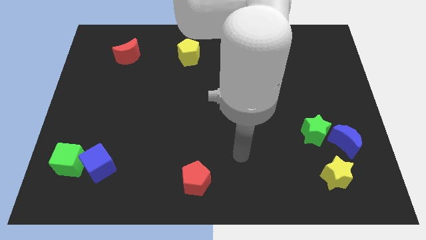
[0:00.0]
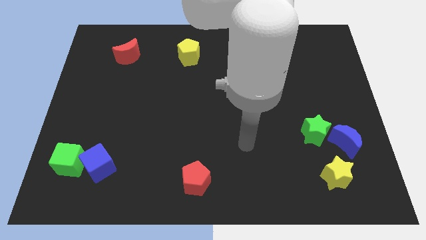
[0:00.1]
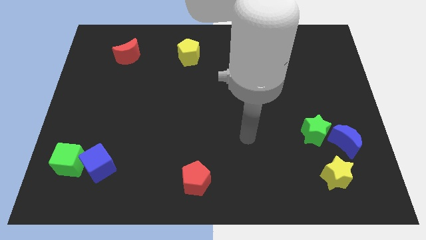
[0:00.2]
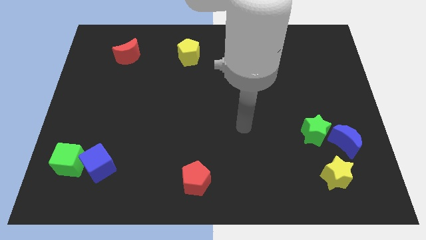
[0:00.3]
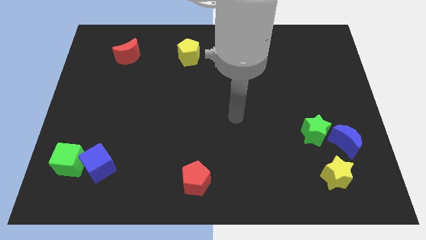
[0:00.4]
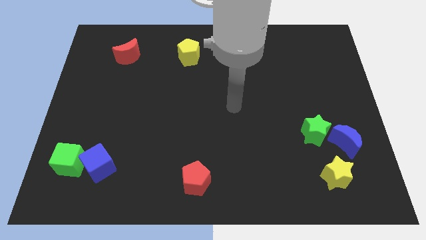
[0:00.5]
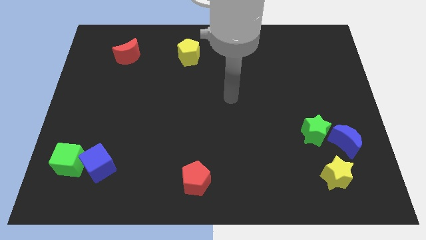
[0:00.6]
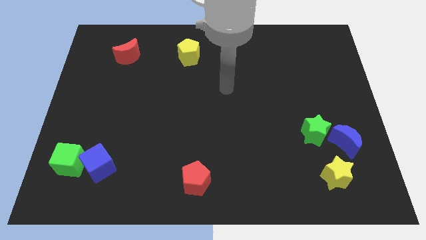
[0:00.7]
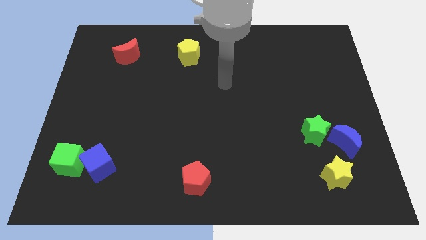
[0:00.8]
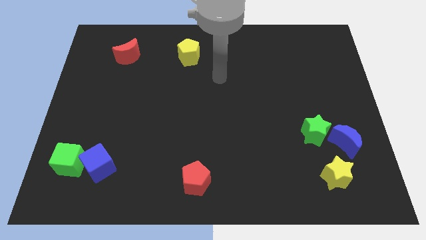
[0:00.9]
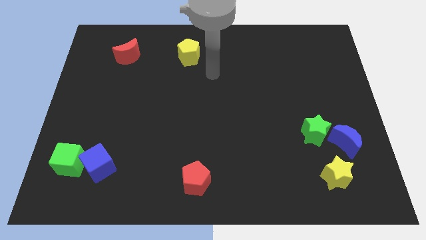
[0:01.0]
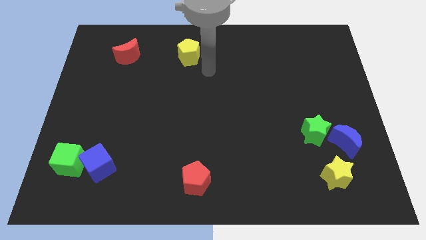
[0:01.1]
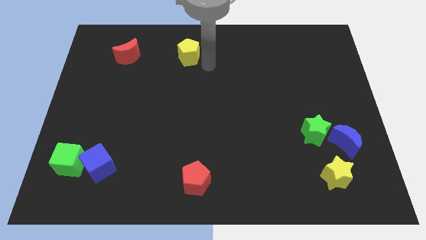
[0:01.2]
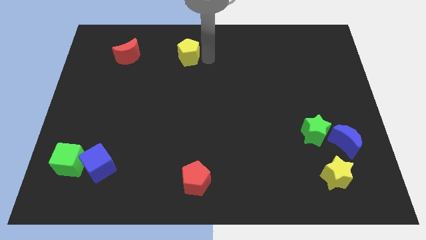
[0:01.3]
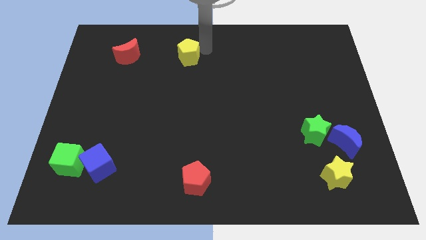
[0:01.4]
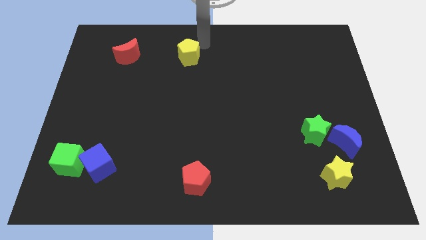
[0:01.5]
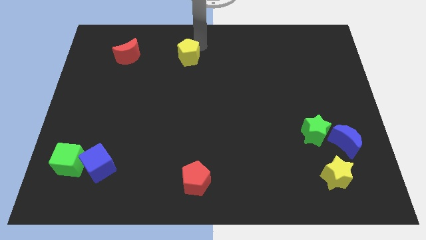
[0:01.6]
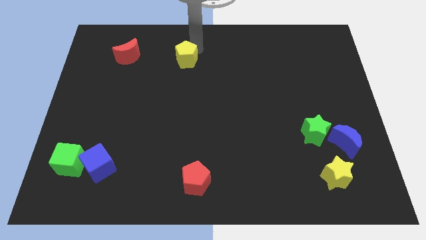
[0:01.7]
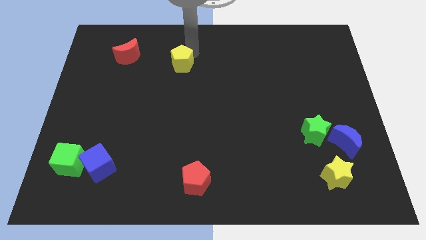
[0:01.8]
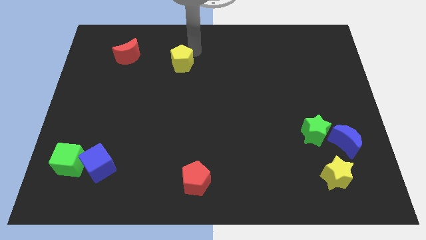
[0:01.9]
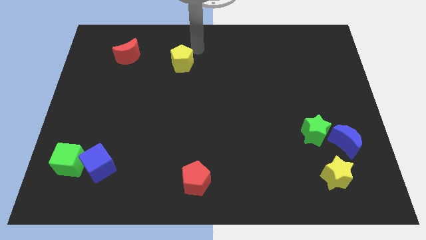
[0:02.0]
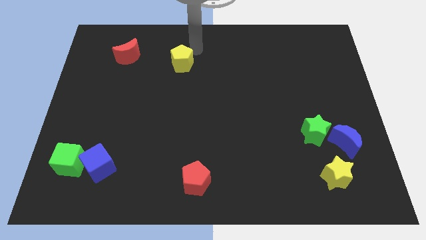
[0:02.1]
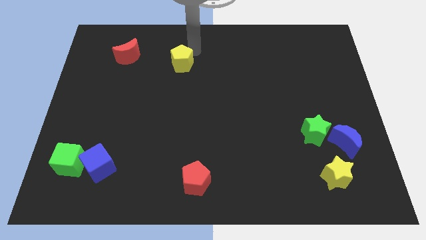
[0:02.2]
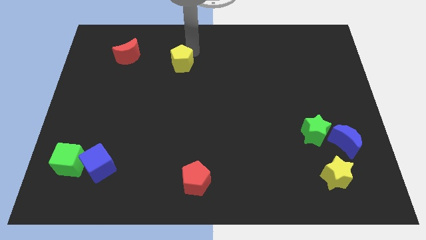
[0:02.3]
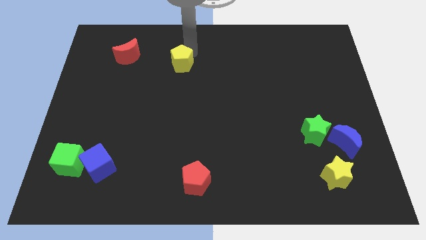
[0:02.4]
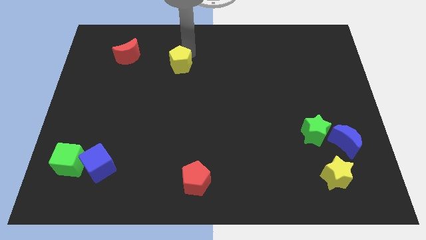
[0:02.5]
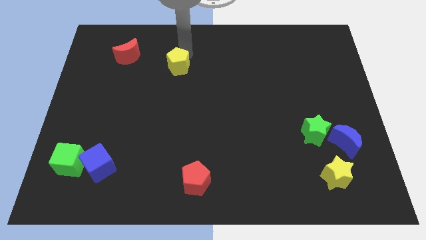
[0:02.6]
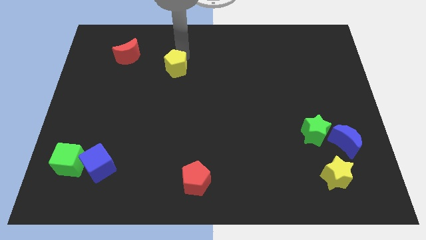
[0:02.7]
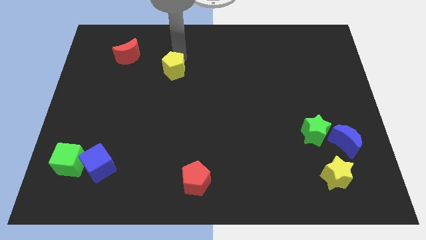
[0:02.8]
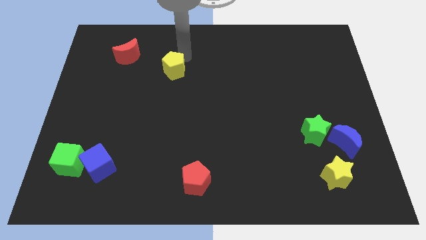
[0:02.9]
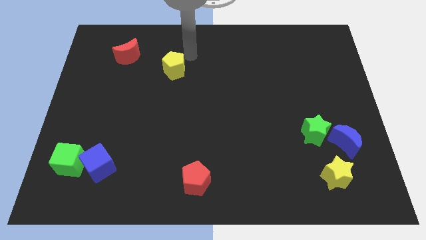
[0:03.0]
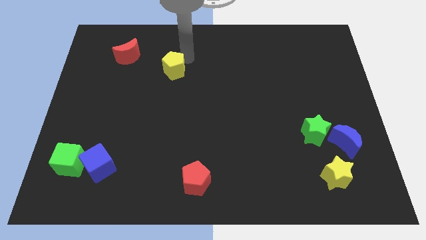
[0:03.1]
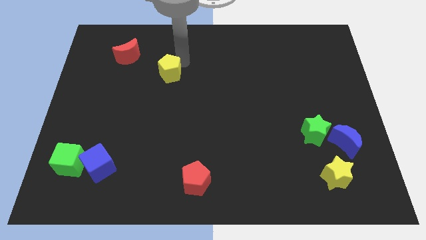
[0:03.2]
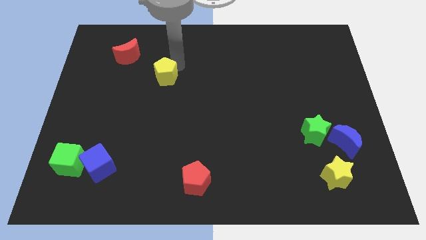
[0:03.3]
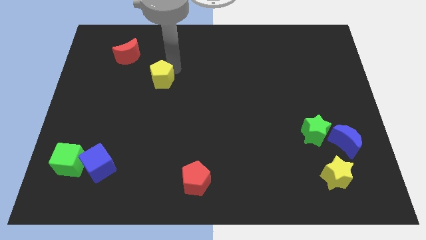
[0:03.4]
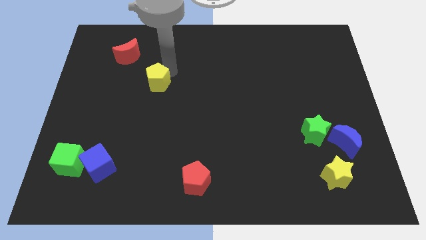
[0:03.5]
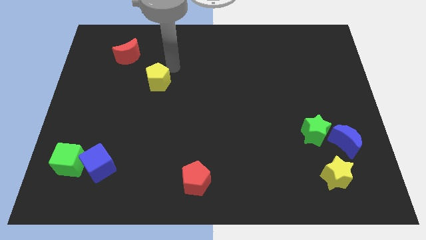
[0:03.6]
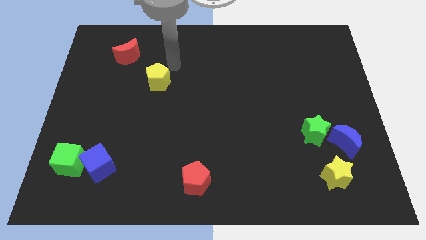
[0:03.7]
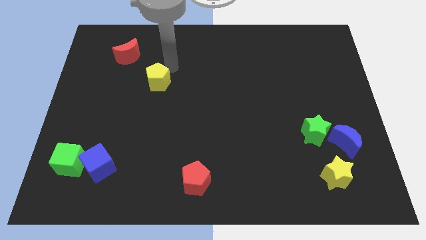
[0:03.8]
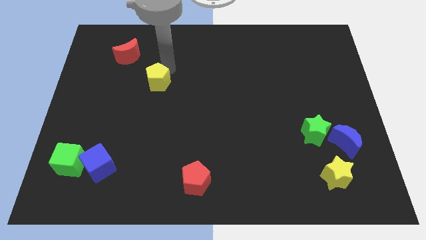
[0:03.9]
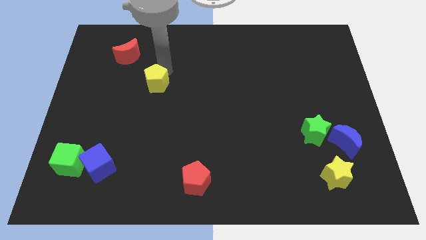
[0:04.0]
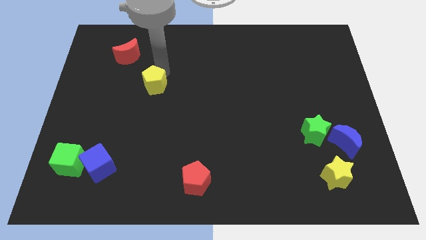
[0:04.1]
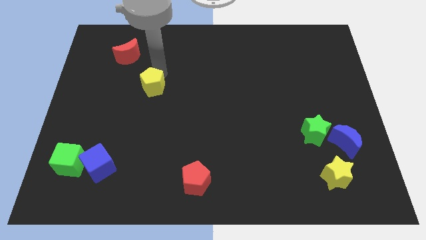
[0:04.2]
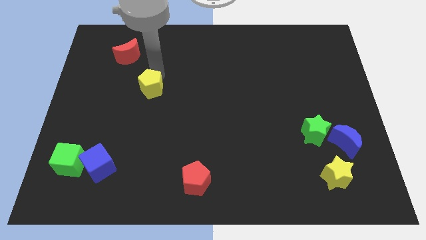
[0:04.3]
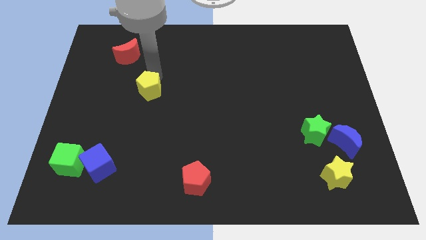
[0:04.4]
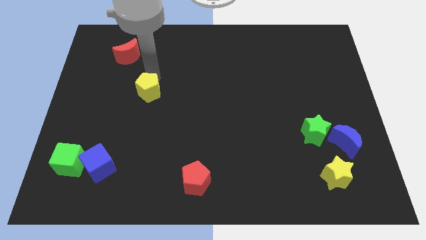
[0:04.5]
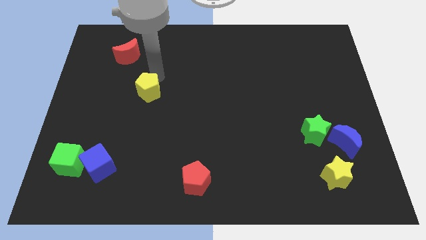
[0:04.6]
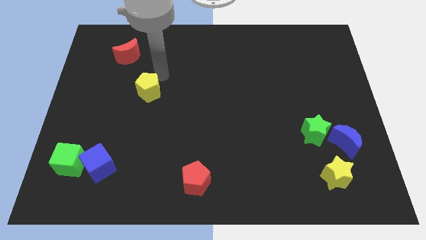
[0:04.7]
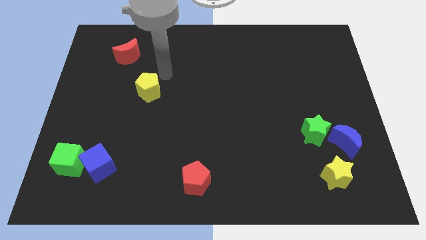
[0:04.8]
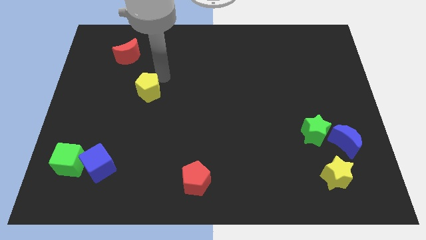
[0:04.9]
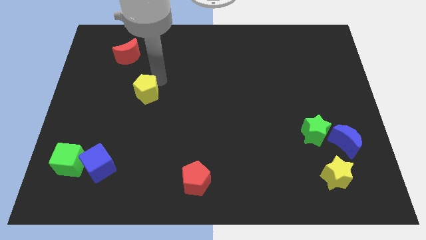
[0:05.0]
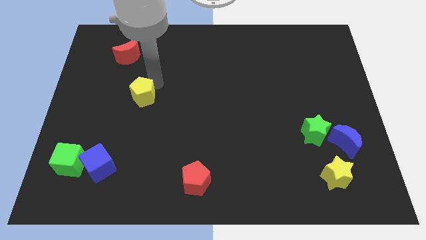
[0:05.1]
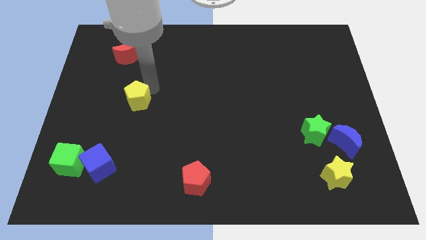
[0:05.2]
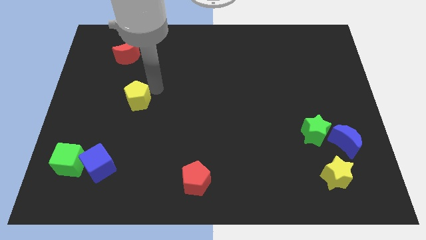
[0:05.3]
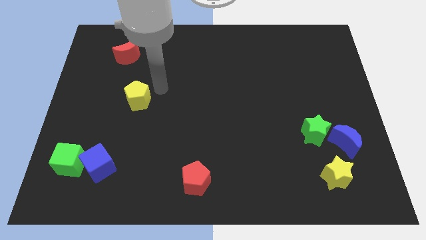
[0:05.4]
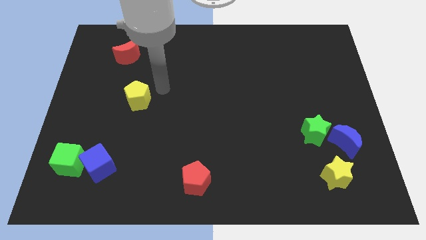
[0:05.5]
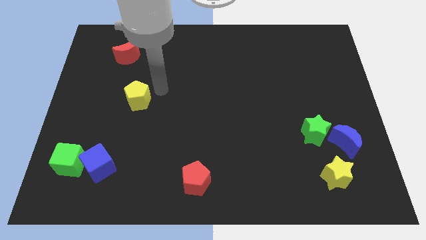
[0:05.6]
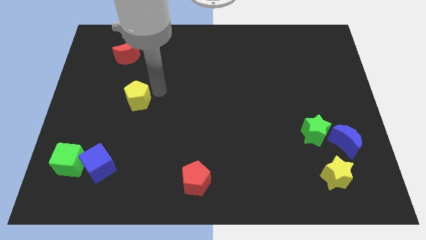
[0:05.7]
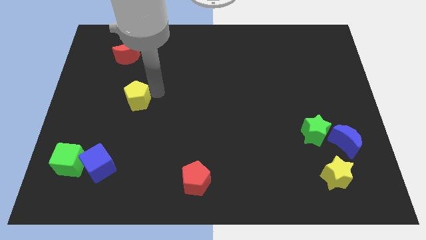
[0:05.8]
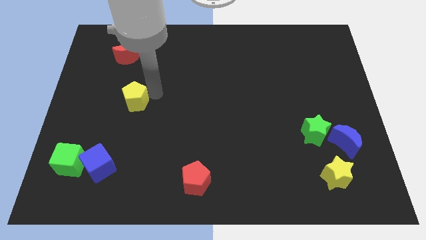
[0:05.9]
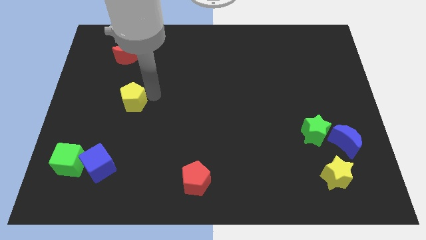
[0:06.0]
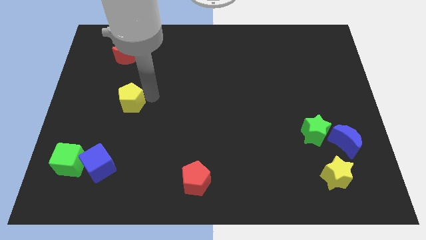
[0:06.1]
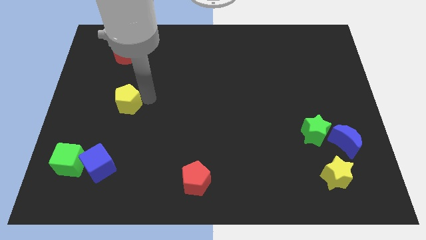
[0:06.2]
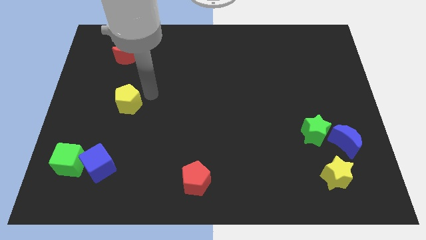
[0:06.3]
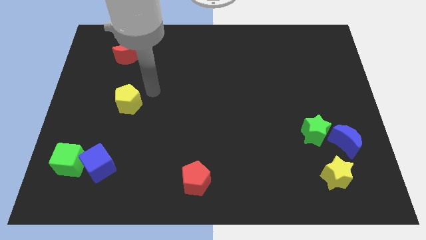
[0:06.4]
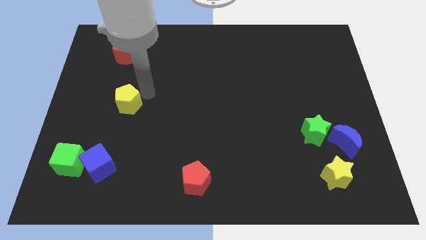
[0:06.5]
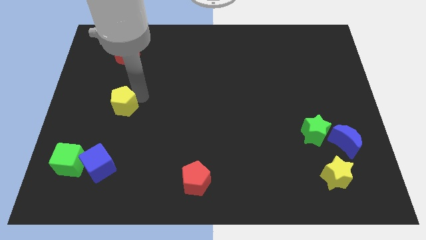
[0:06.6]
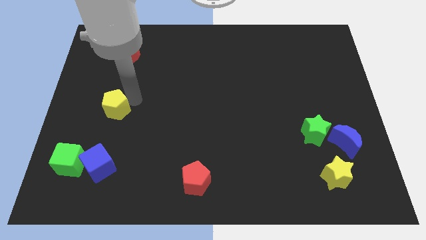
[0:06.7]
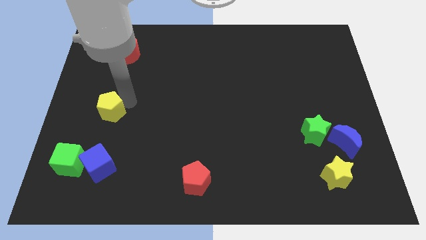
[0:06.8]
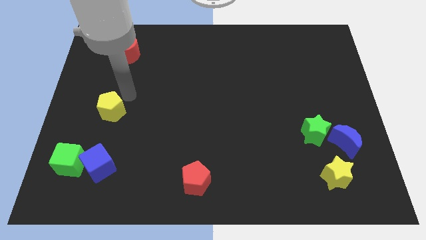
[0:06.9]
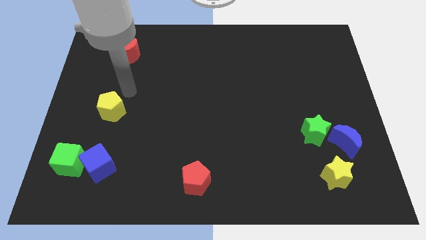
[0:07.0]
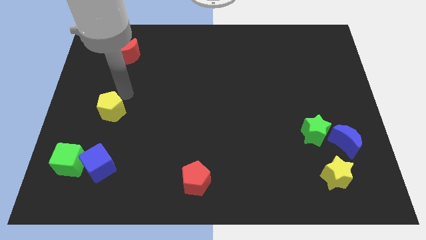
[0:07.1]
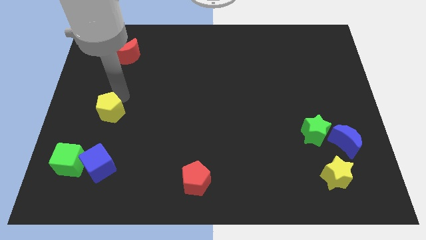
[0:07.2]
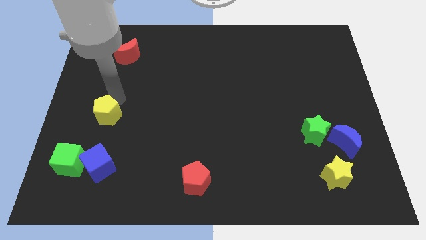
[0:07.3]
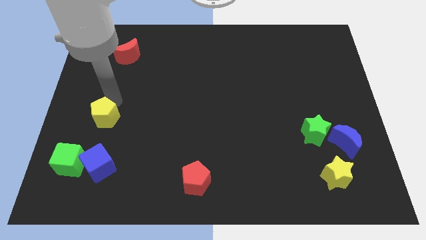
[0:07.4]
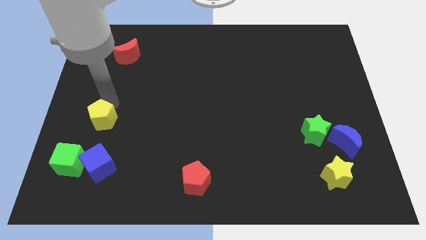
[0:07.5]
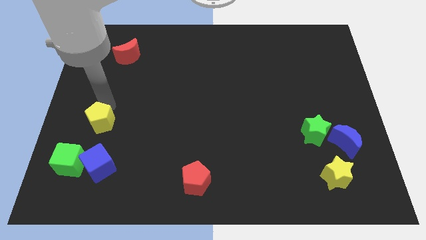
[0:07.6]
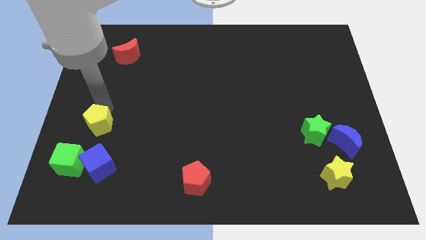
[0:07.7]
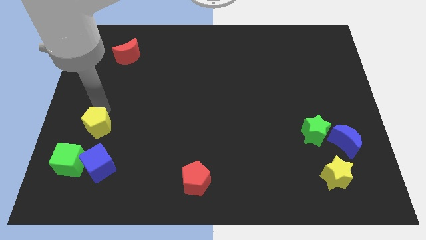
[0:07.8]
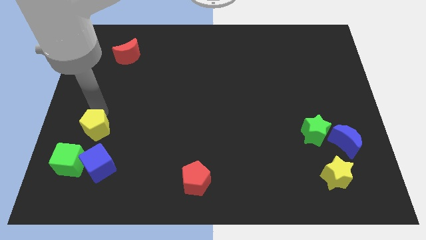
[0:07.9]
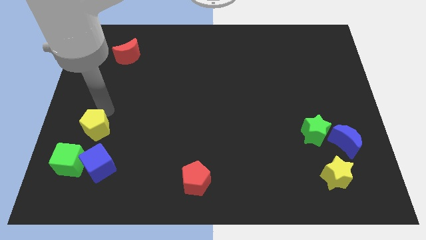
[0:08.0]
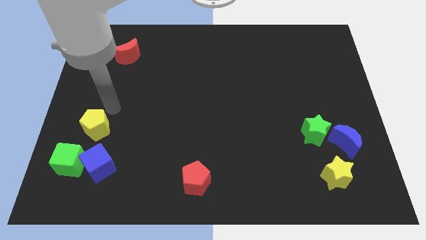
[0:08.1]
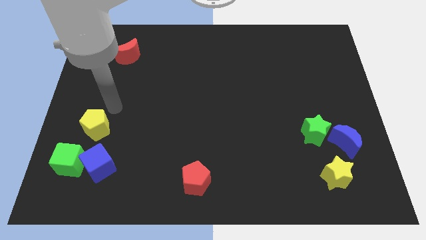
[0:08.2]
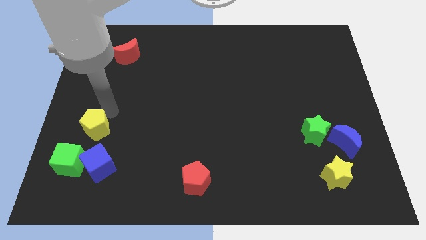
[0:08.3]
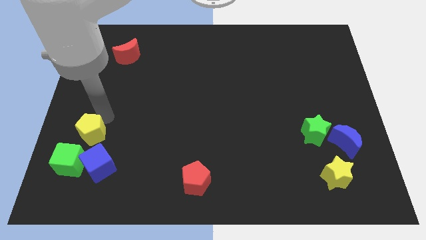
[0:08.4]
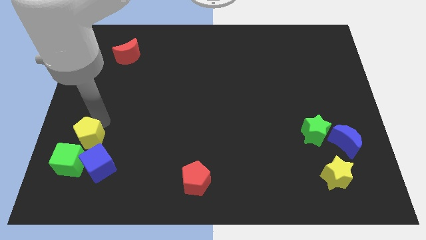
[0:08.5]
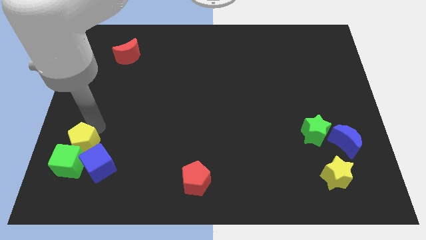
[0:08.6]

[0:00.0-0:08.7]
put the yellow pentagon towards the green cube
